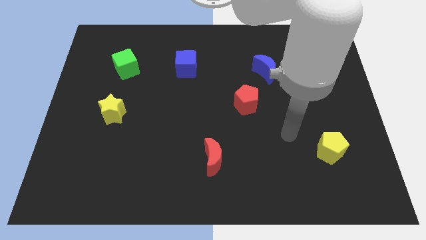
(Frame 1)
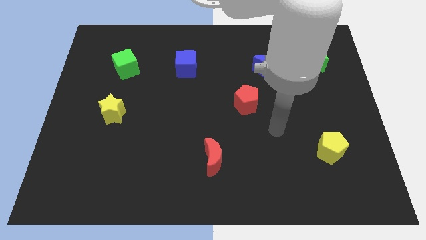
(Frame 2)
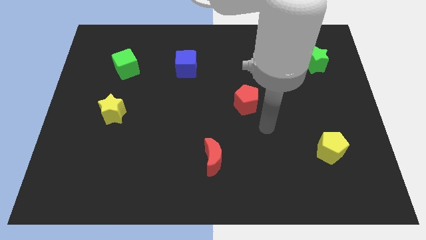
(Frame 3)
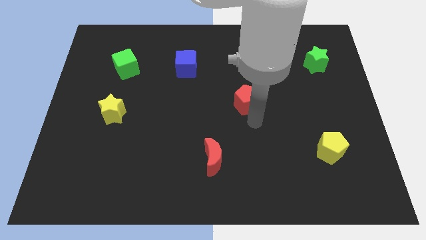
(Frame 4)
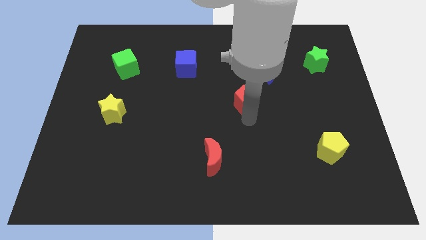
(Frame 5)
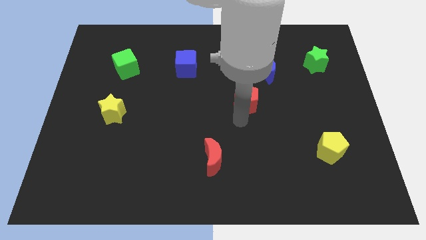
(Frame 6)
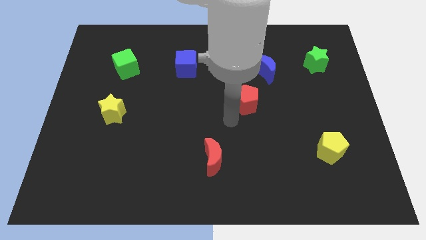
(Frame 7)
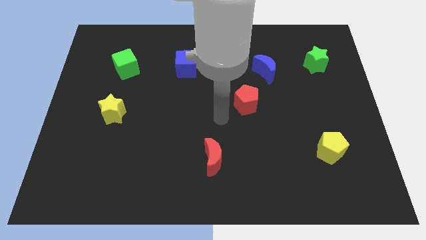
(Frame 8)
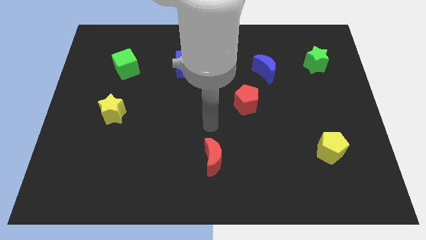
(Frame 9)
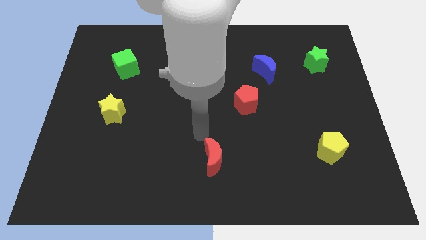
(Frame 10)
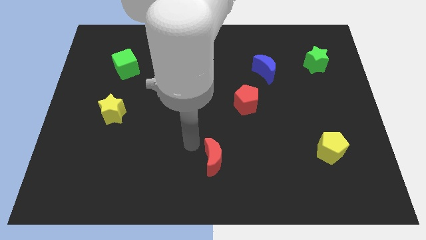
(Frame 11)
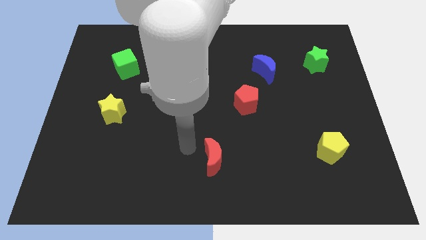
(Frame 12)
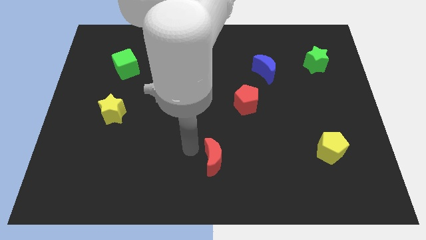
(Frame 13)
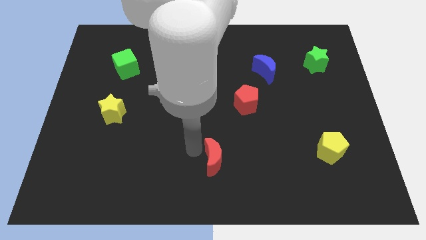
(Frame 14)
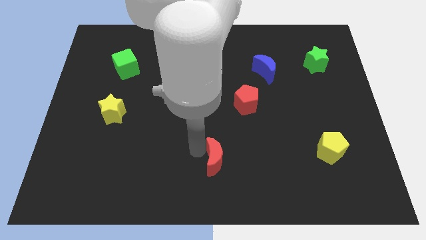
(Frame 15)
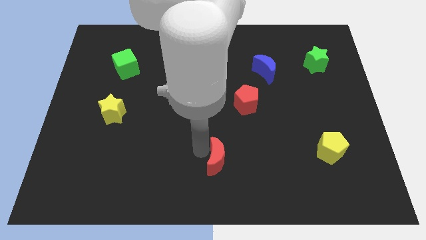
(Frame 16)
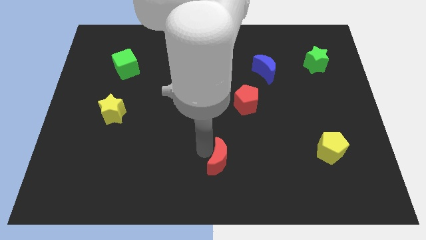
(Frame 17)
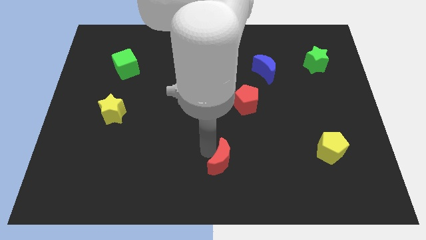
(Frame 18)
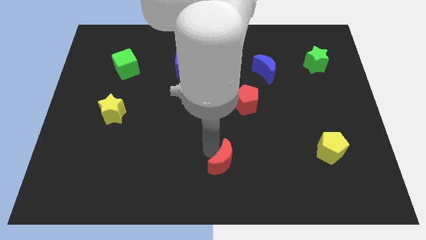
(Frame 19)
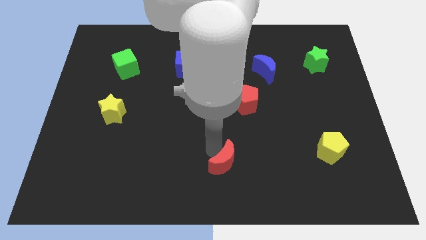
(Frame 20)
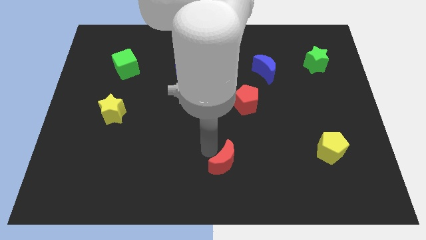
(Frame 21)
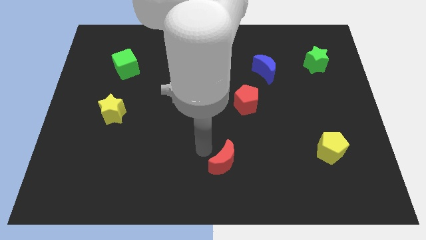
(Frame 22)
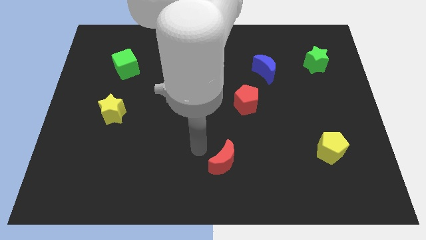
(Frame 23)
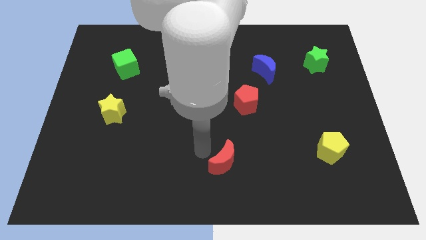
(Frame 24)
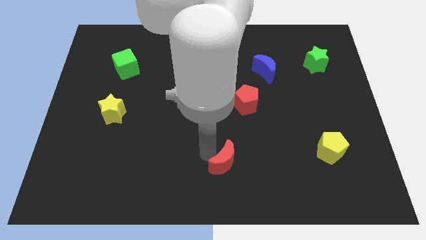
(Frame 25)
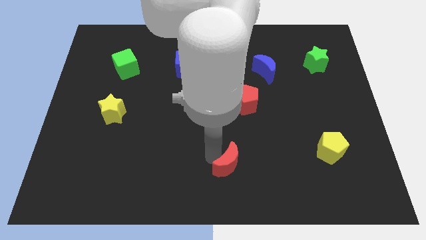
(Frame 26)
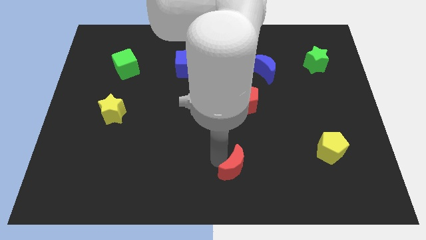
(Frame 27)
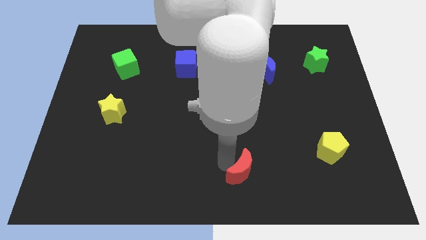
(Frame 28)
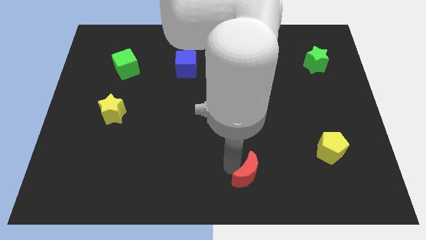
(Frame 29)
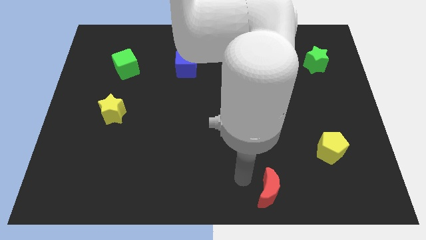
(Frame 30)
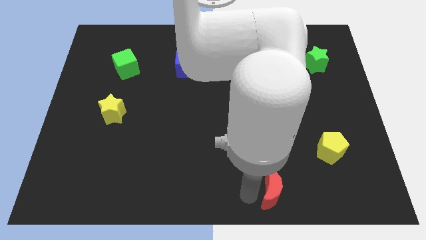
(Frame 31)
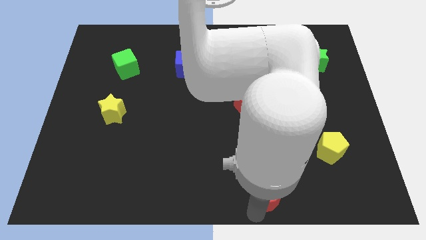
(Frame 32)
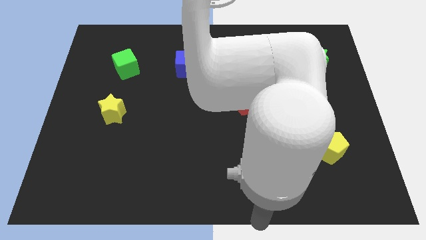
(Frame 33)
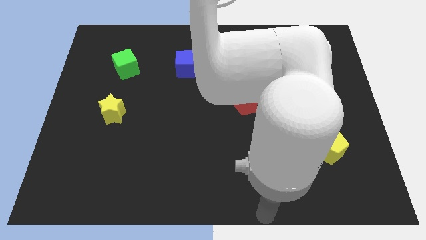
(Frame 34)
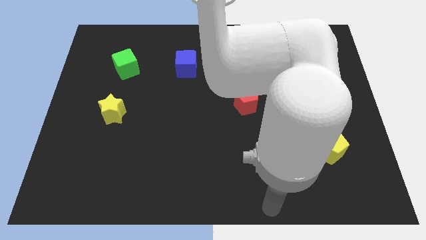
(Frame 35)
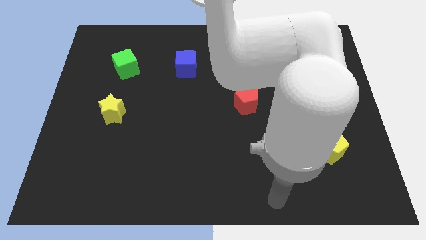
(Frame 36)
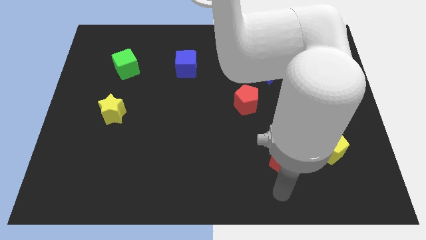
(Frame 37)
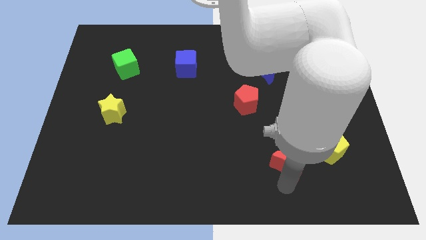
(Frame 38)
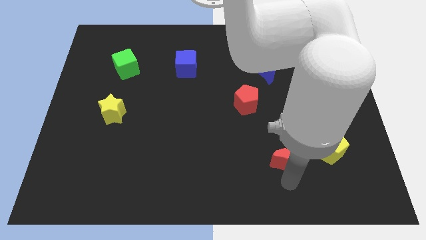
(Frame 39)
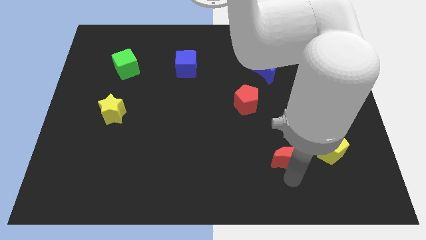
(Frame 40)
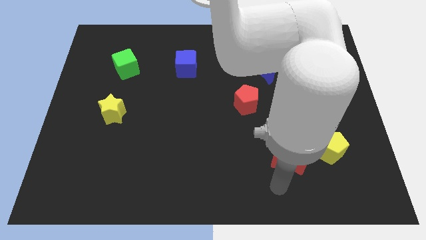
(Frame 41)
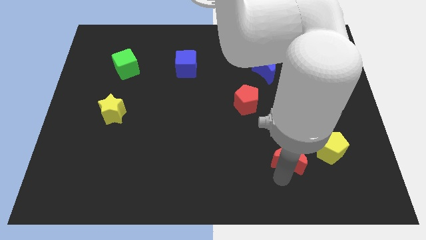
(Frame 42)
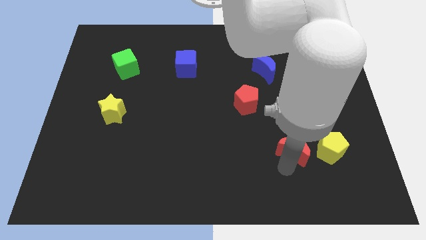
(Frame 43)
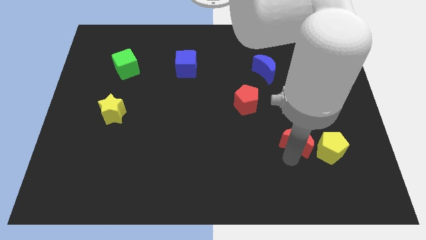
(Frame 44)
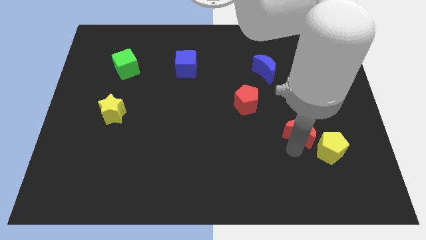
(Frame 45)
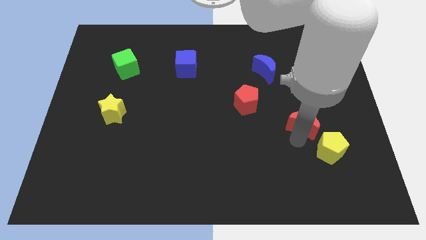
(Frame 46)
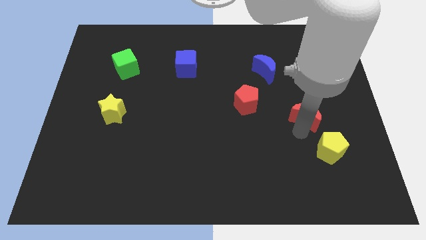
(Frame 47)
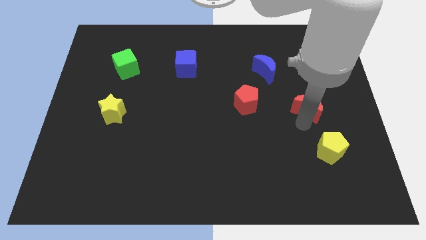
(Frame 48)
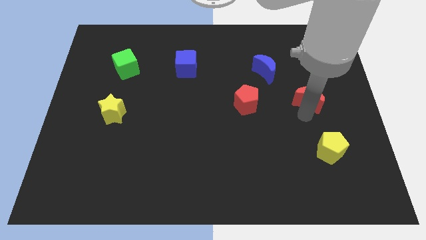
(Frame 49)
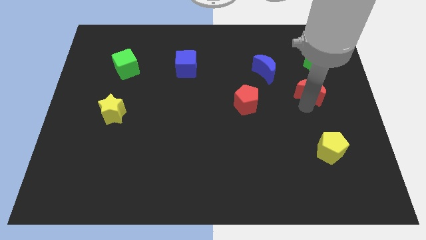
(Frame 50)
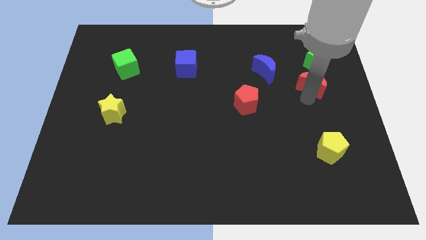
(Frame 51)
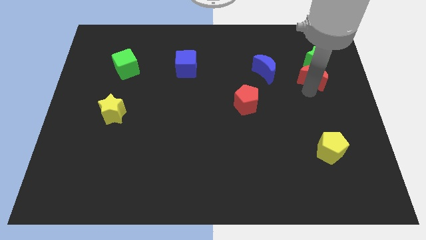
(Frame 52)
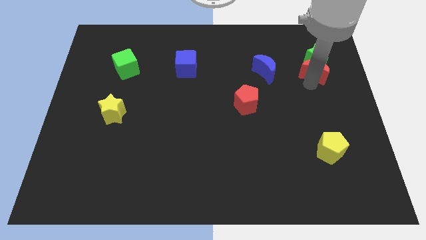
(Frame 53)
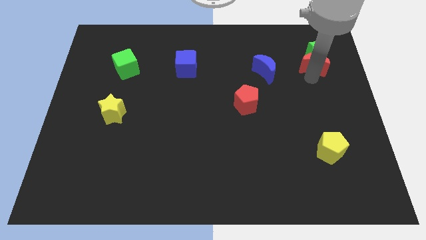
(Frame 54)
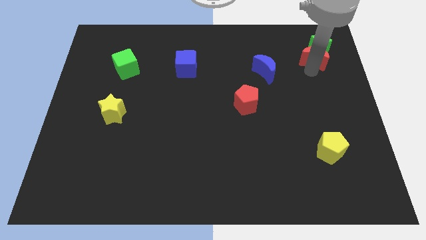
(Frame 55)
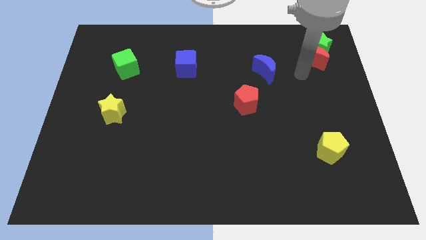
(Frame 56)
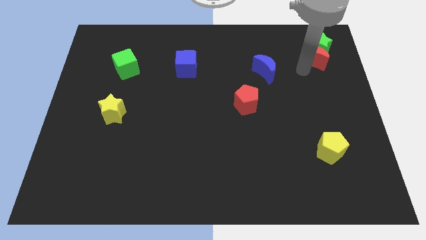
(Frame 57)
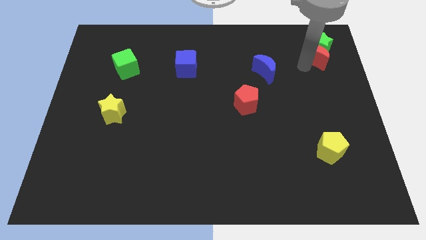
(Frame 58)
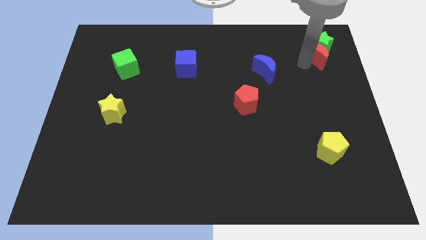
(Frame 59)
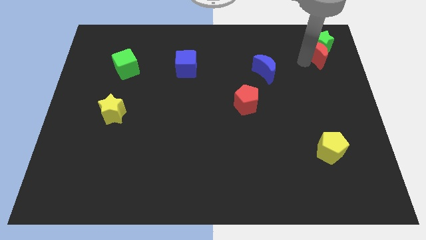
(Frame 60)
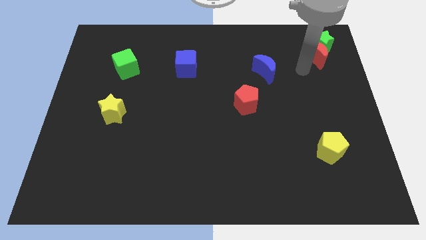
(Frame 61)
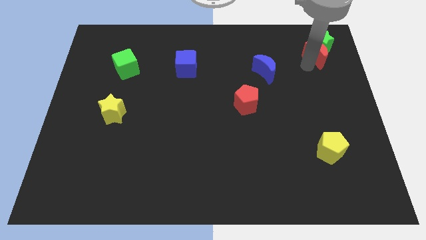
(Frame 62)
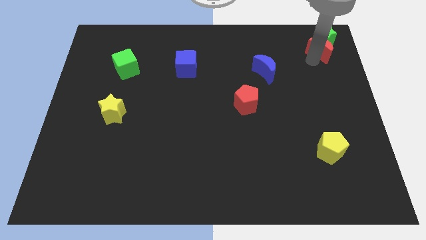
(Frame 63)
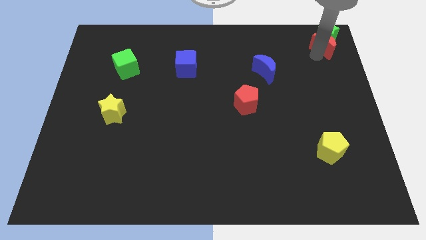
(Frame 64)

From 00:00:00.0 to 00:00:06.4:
push the red moon to the top right
